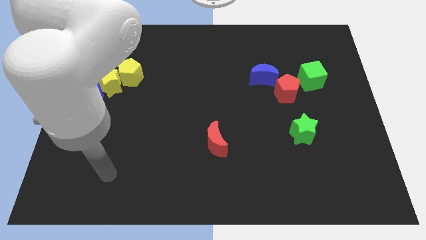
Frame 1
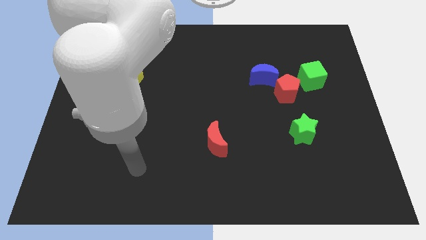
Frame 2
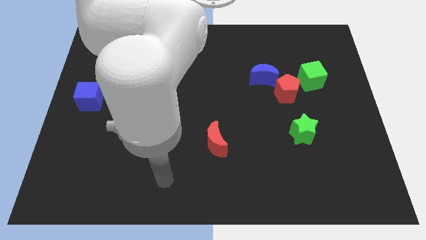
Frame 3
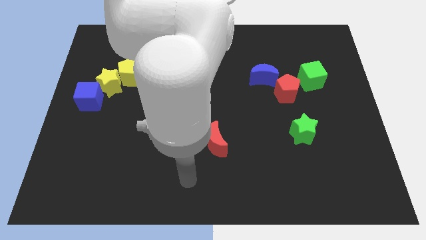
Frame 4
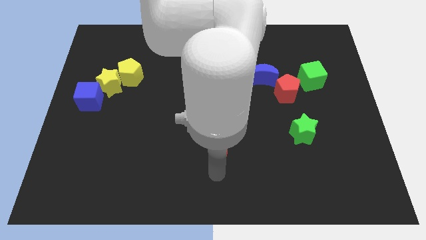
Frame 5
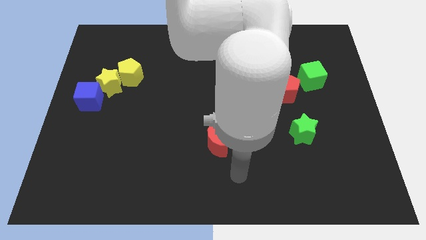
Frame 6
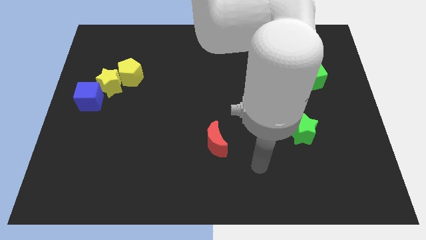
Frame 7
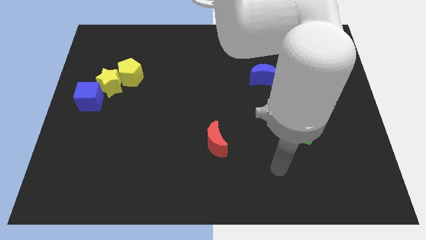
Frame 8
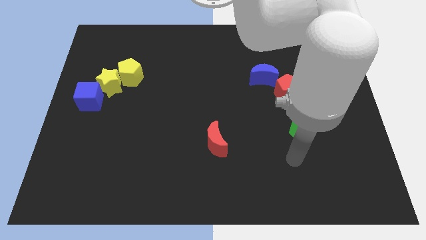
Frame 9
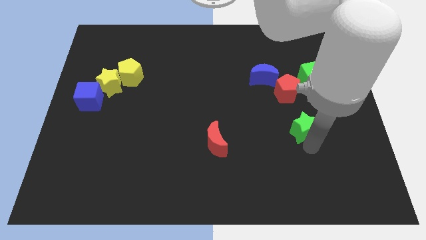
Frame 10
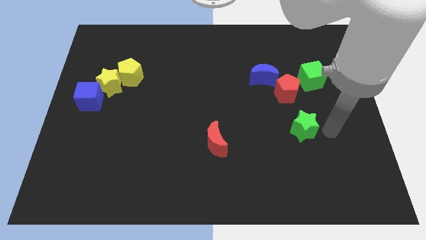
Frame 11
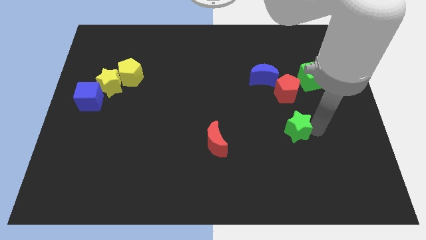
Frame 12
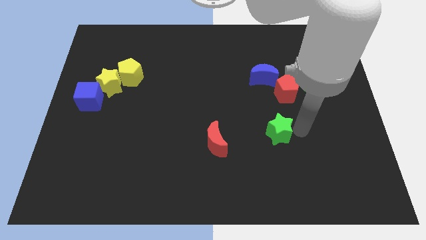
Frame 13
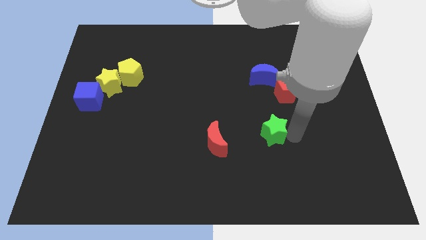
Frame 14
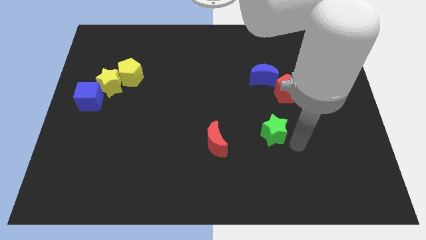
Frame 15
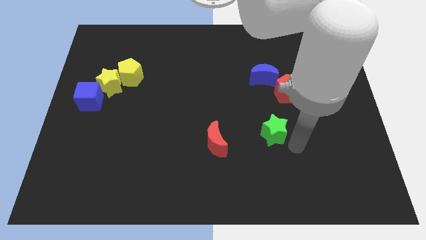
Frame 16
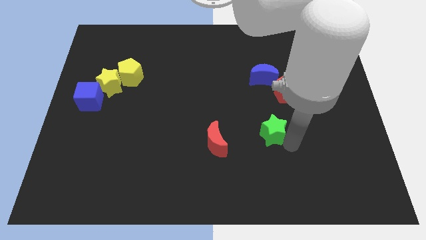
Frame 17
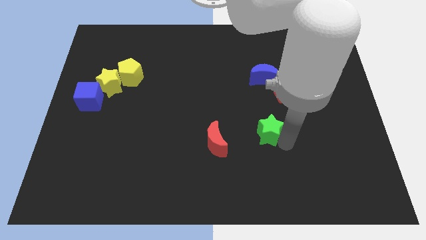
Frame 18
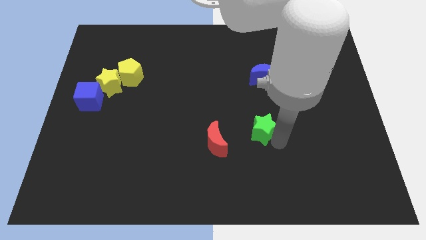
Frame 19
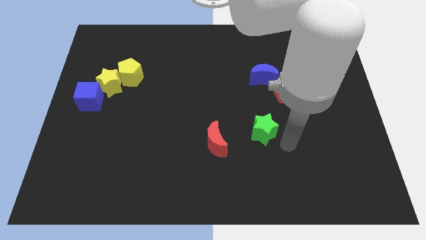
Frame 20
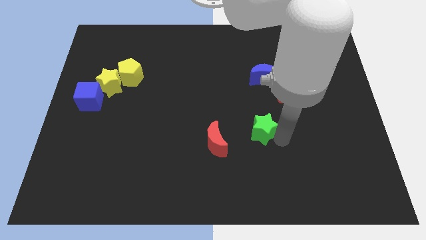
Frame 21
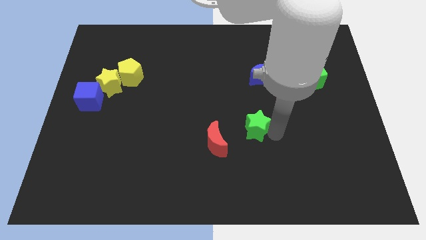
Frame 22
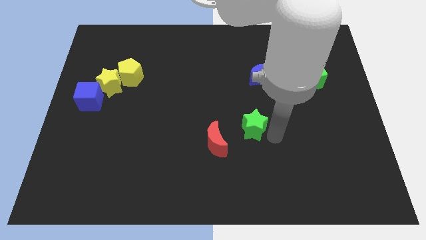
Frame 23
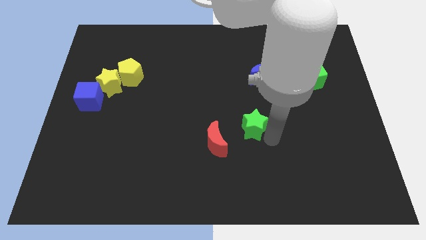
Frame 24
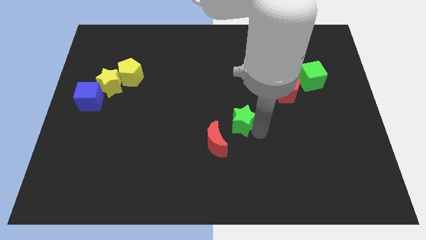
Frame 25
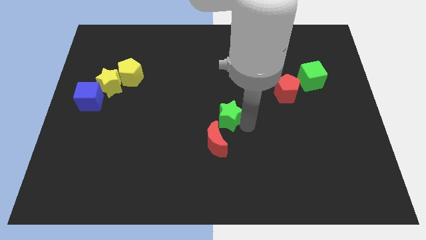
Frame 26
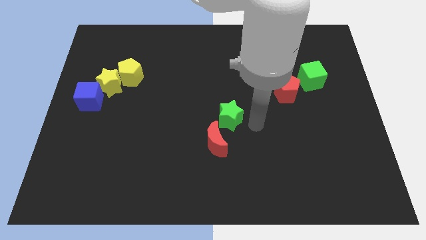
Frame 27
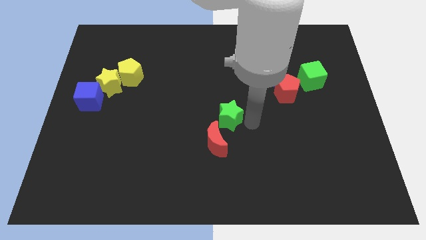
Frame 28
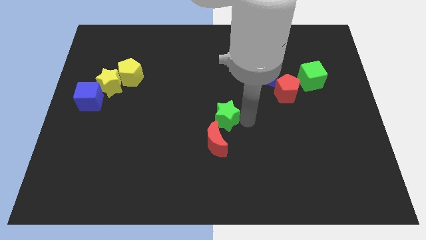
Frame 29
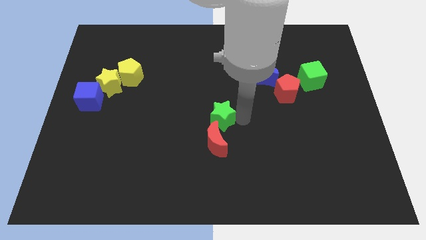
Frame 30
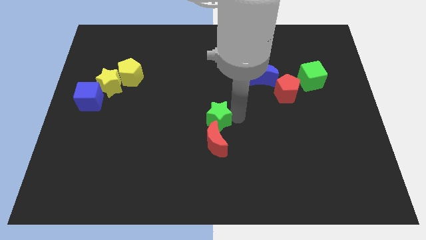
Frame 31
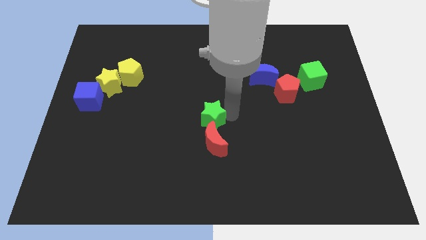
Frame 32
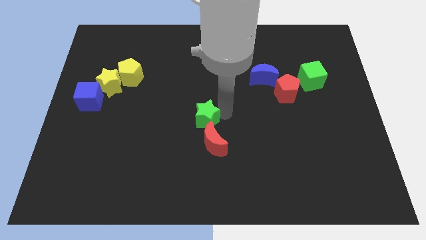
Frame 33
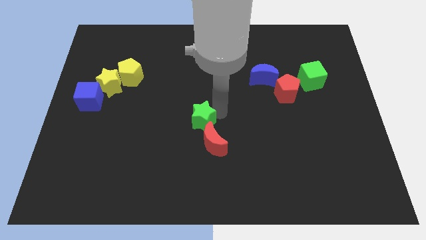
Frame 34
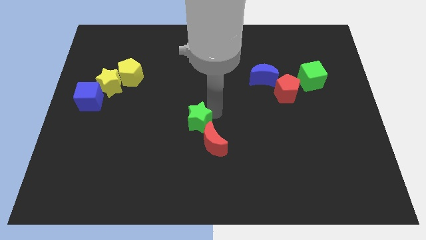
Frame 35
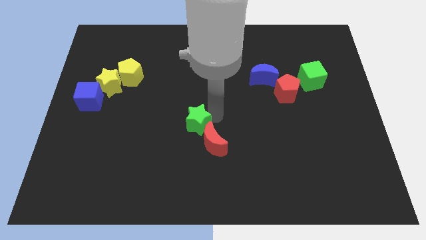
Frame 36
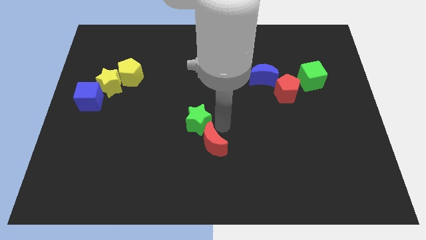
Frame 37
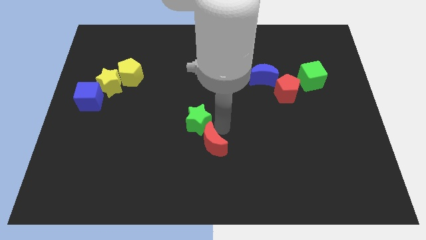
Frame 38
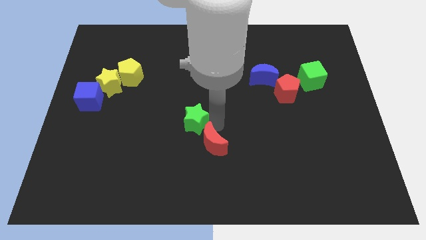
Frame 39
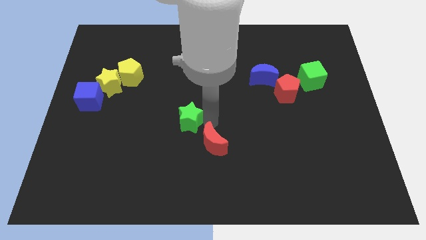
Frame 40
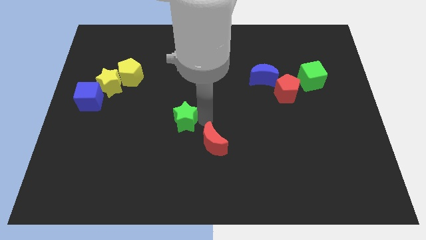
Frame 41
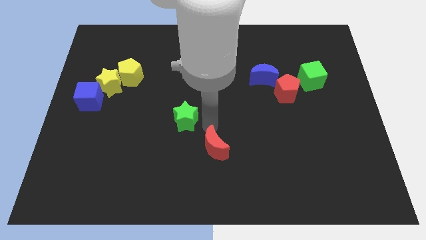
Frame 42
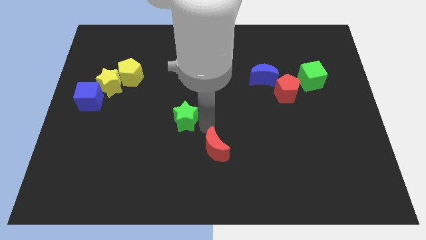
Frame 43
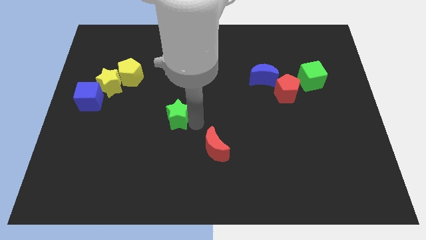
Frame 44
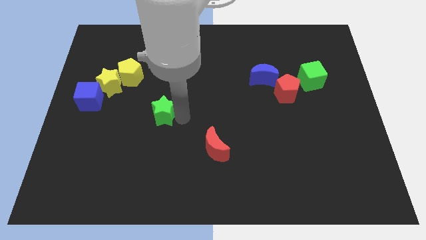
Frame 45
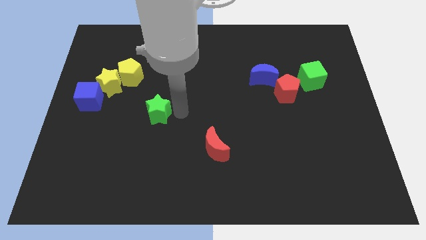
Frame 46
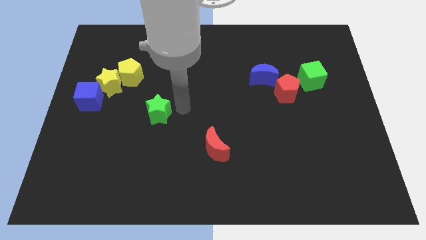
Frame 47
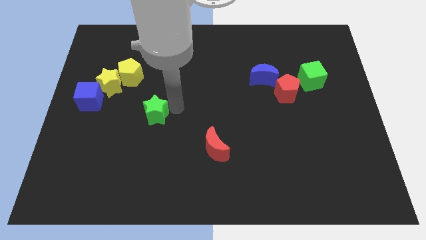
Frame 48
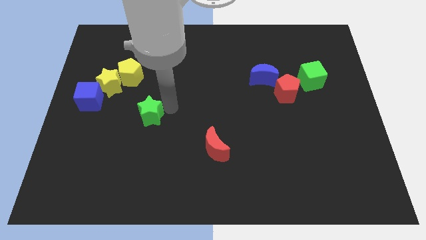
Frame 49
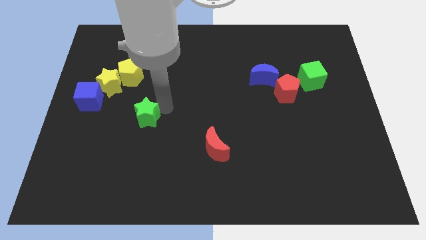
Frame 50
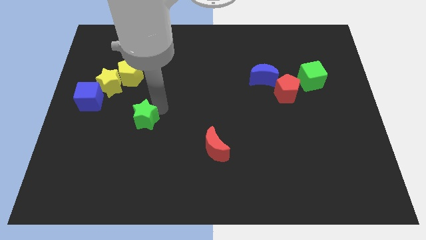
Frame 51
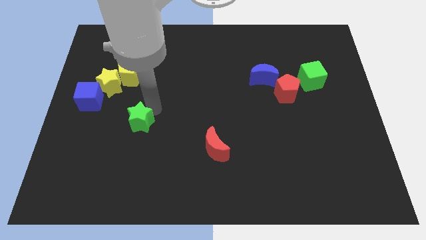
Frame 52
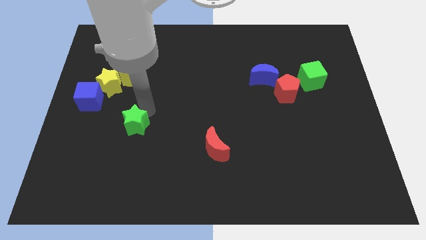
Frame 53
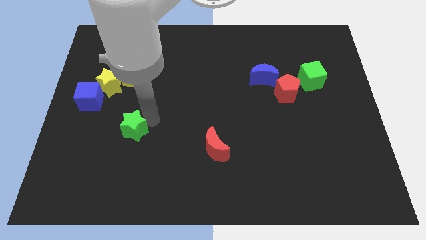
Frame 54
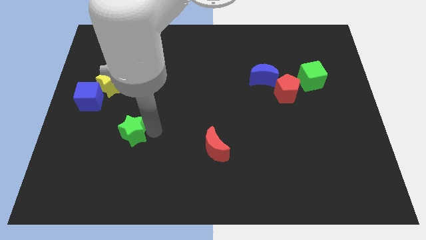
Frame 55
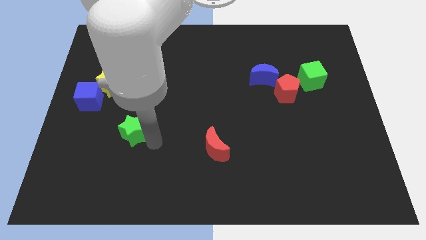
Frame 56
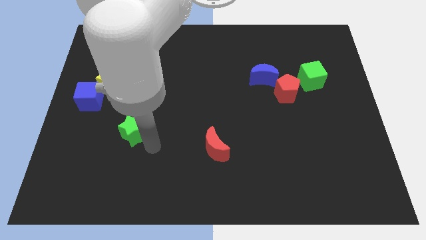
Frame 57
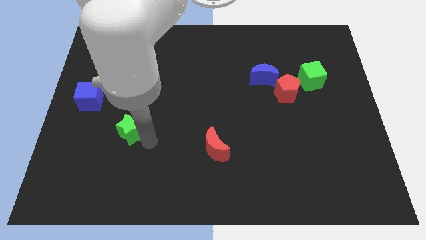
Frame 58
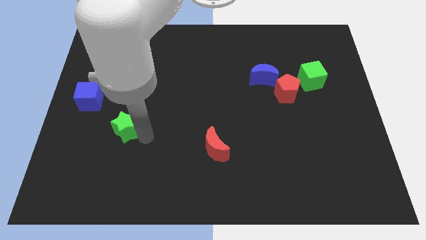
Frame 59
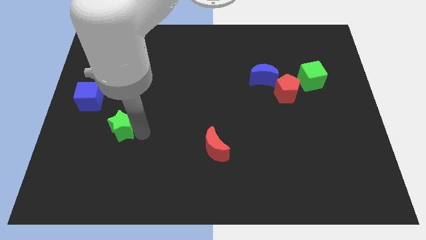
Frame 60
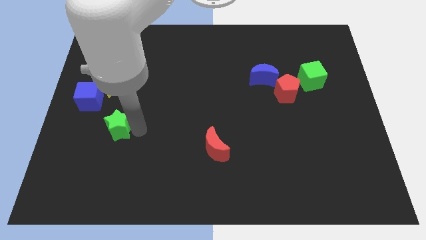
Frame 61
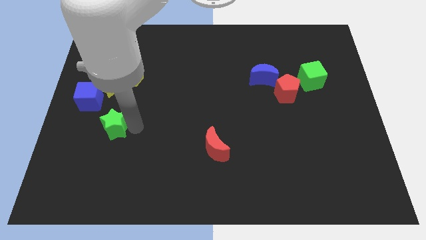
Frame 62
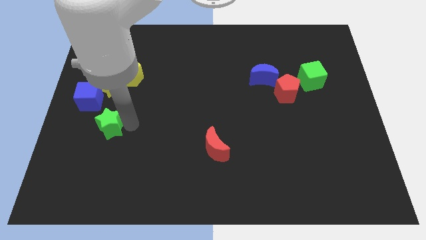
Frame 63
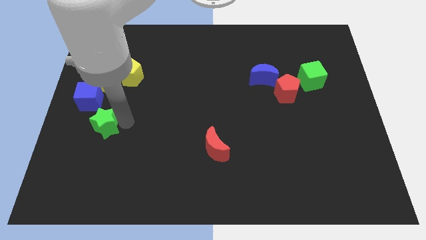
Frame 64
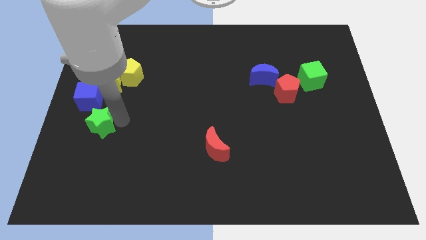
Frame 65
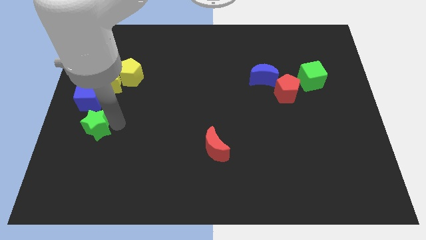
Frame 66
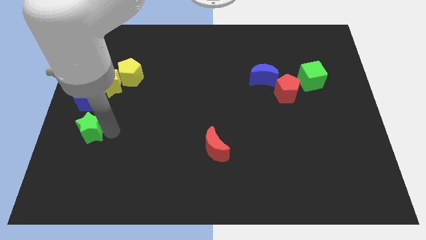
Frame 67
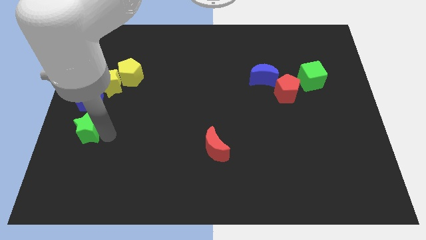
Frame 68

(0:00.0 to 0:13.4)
move the green star to the left side of the board
